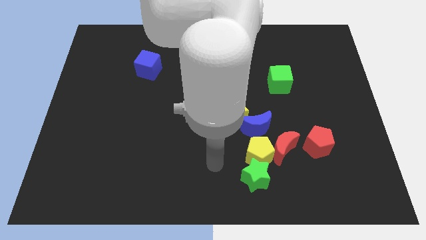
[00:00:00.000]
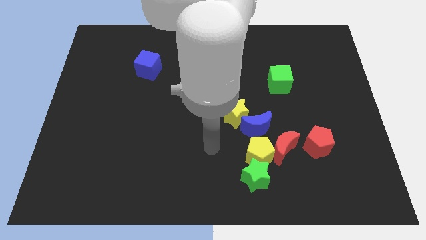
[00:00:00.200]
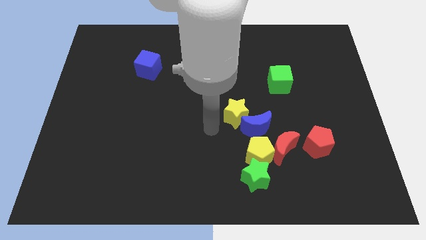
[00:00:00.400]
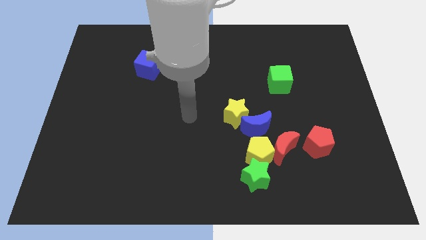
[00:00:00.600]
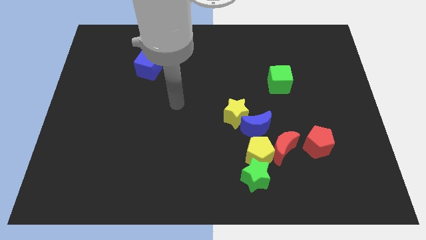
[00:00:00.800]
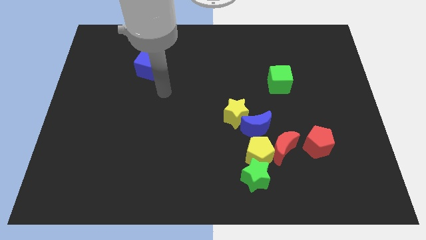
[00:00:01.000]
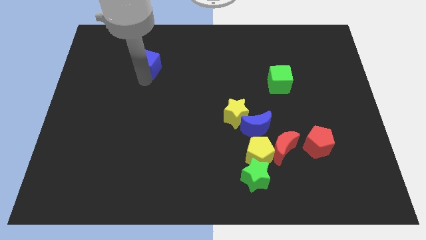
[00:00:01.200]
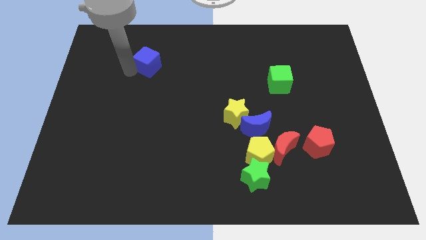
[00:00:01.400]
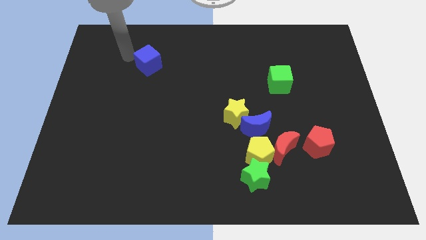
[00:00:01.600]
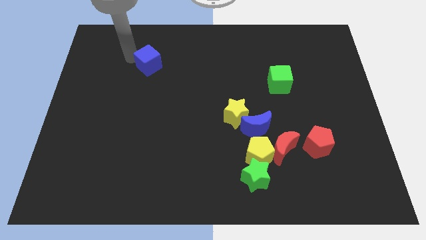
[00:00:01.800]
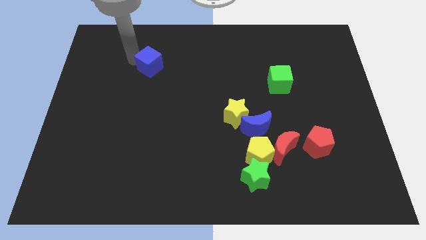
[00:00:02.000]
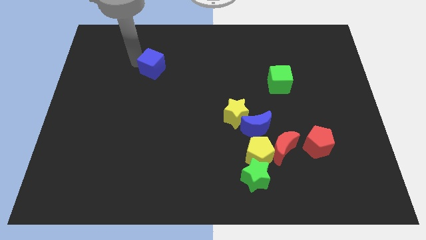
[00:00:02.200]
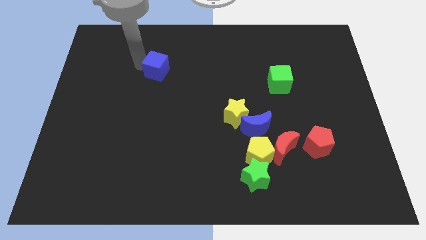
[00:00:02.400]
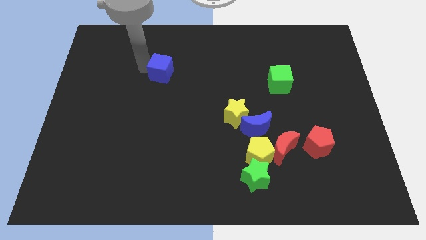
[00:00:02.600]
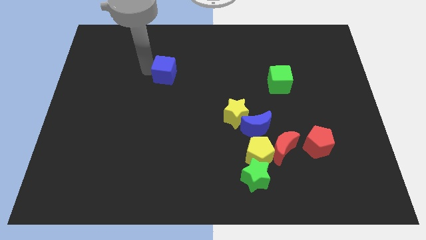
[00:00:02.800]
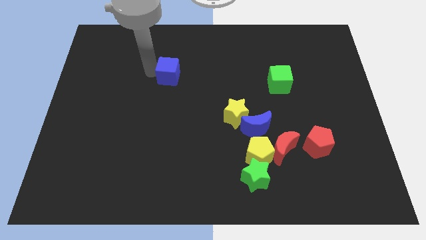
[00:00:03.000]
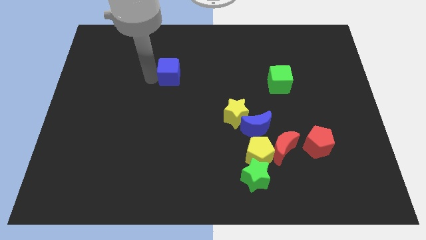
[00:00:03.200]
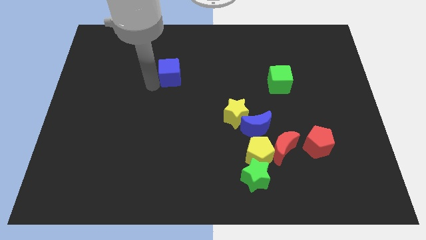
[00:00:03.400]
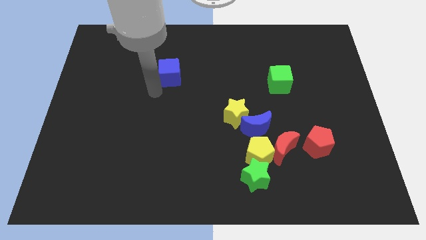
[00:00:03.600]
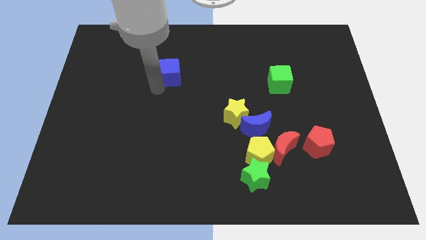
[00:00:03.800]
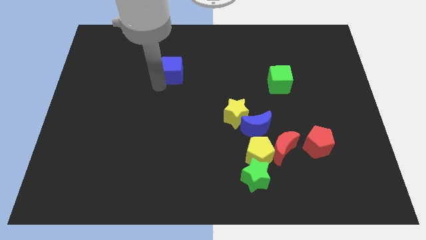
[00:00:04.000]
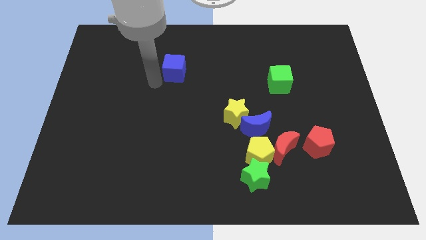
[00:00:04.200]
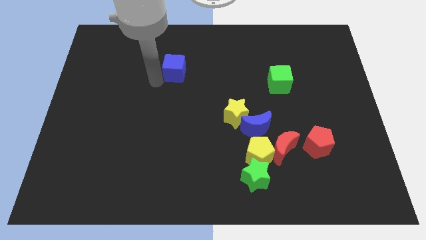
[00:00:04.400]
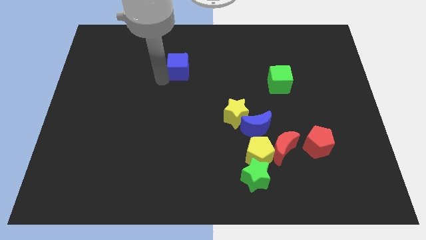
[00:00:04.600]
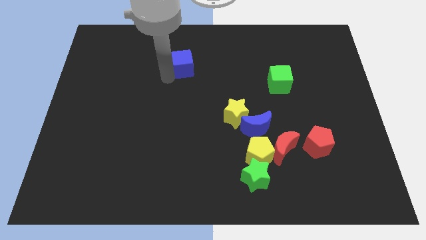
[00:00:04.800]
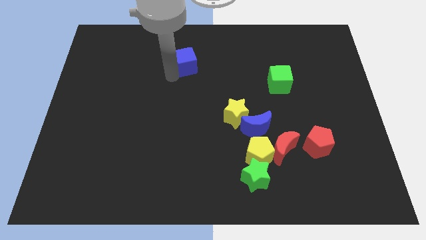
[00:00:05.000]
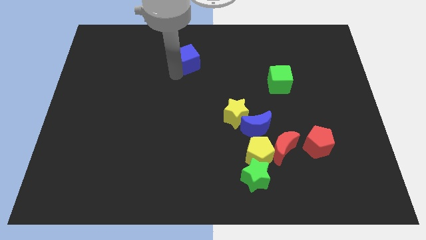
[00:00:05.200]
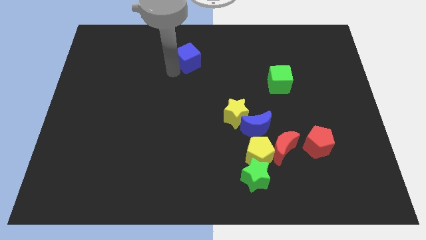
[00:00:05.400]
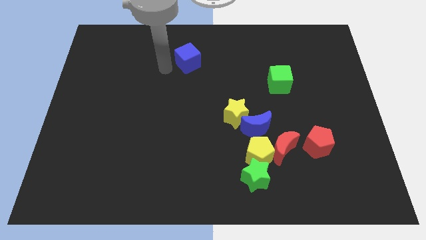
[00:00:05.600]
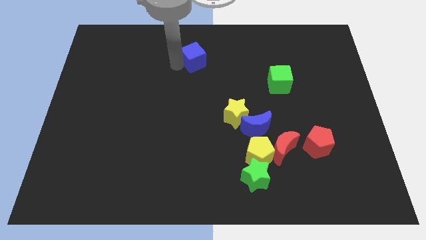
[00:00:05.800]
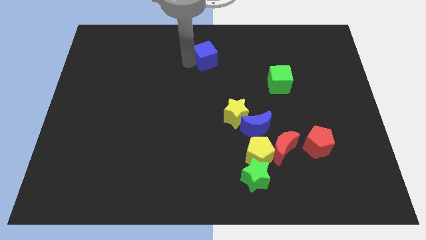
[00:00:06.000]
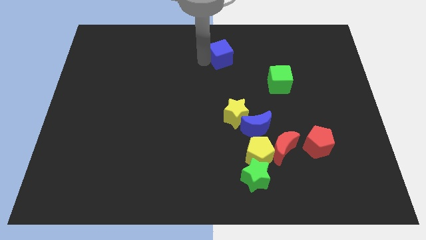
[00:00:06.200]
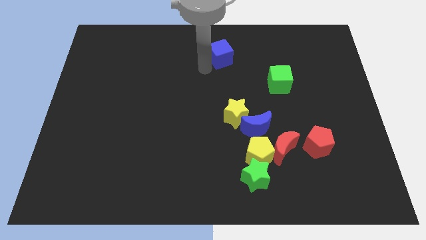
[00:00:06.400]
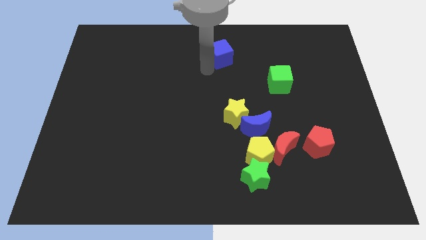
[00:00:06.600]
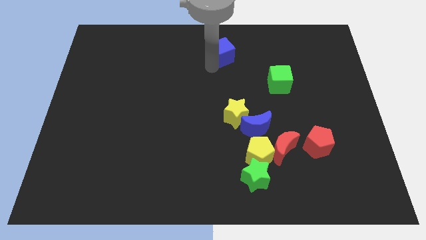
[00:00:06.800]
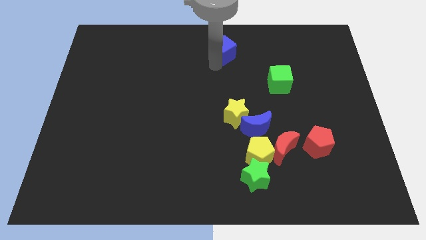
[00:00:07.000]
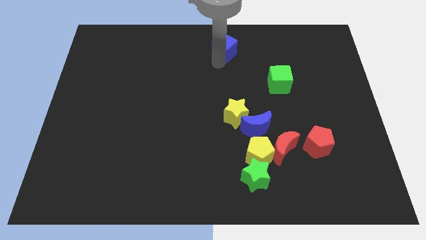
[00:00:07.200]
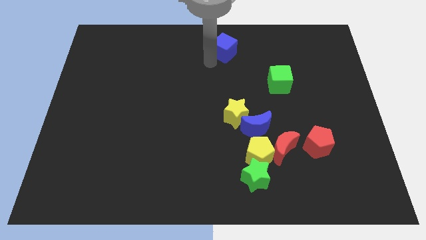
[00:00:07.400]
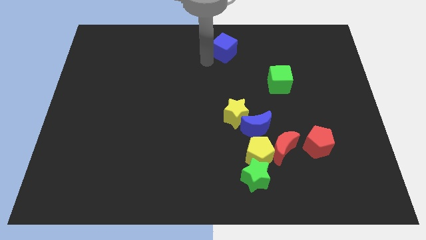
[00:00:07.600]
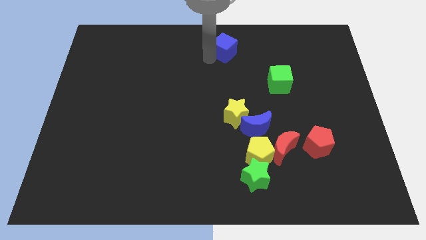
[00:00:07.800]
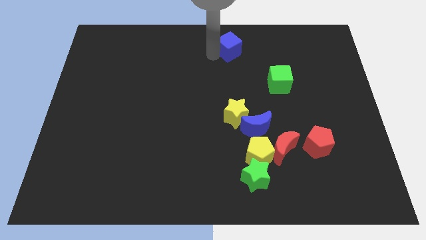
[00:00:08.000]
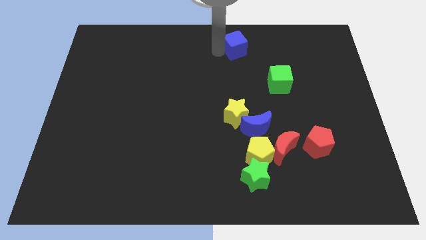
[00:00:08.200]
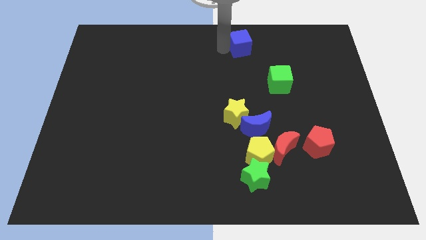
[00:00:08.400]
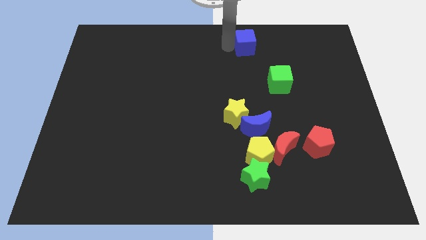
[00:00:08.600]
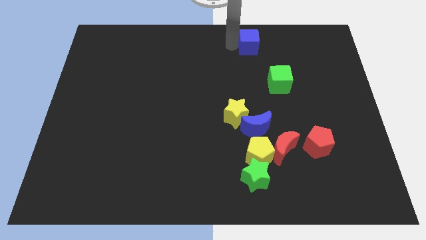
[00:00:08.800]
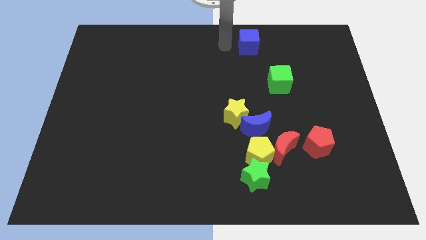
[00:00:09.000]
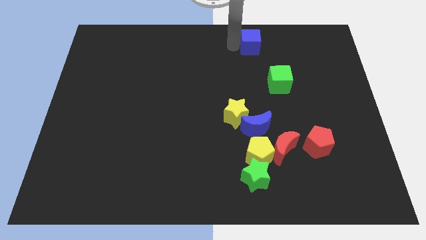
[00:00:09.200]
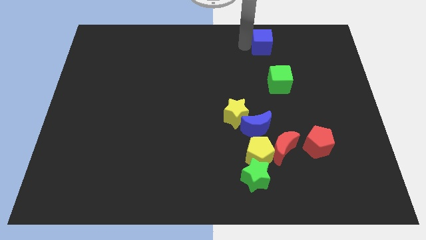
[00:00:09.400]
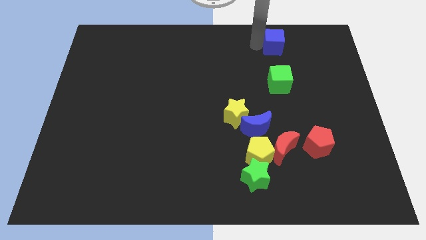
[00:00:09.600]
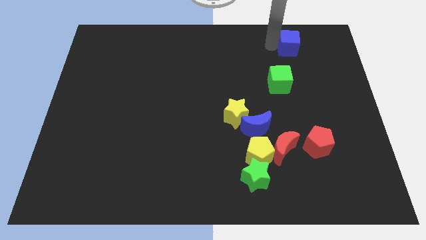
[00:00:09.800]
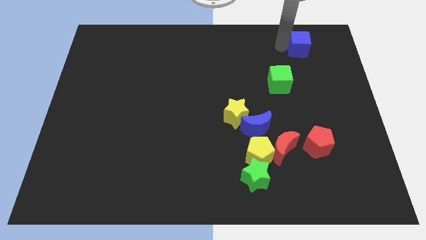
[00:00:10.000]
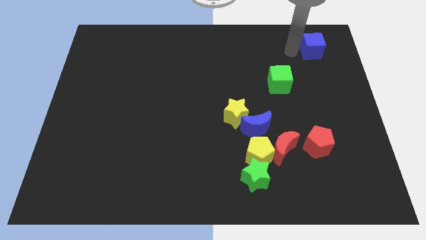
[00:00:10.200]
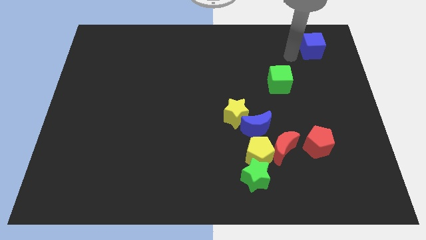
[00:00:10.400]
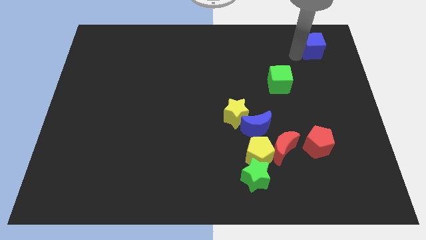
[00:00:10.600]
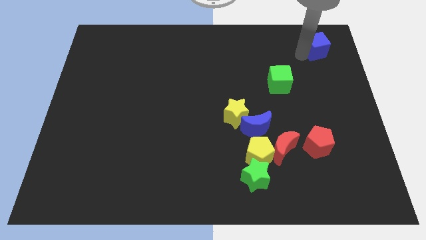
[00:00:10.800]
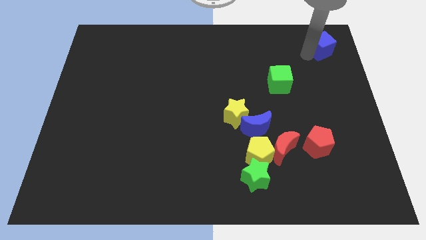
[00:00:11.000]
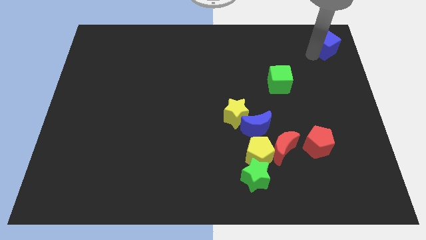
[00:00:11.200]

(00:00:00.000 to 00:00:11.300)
move the blue cube to the top right of the board

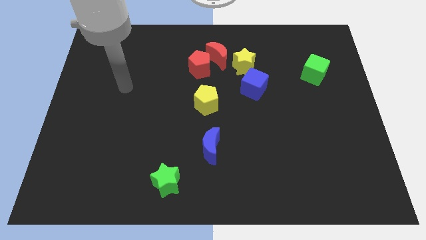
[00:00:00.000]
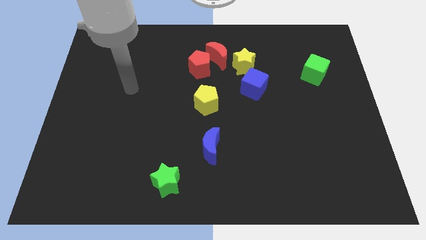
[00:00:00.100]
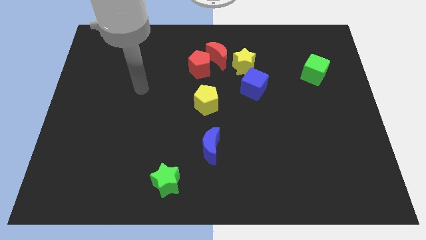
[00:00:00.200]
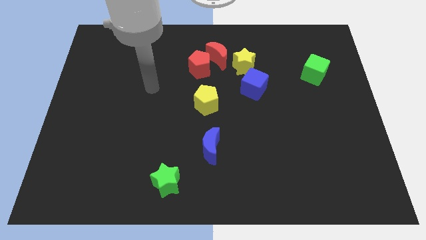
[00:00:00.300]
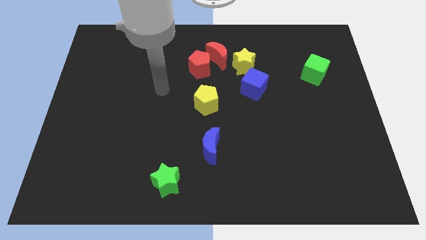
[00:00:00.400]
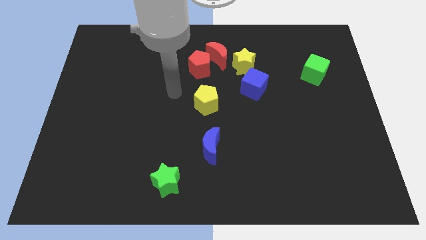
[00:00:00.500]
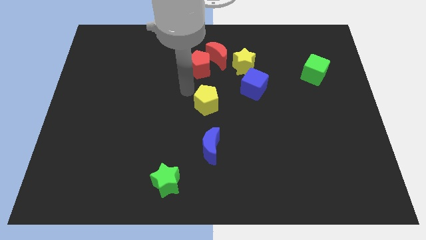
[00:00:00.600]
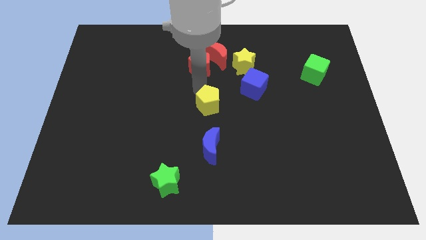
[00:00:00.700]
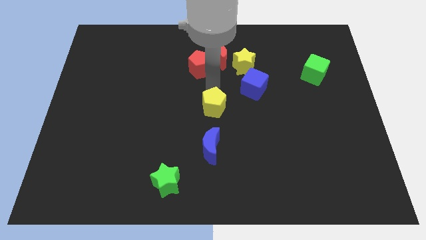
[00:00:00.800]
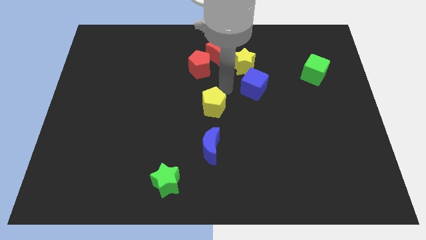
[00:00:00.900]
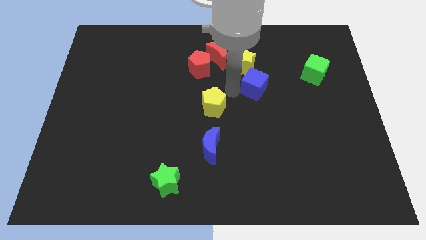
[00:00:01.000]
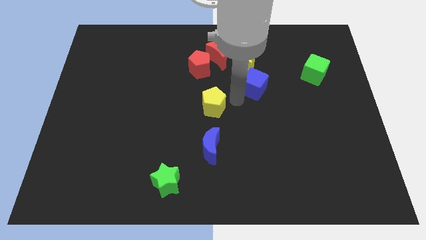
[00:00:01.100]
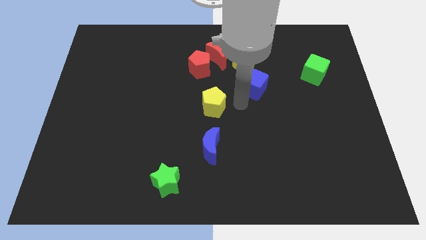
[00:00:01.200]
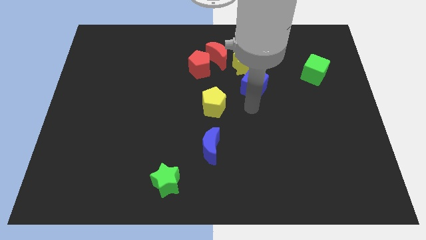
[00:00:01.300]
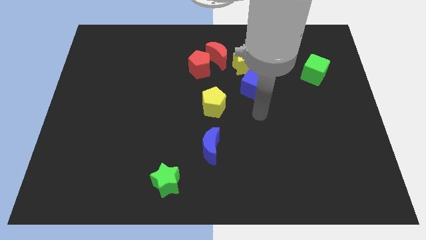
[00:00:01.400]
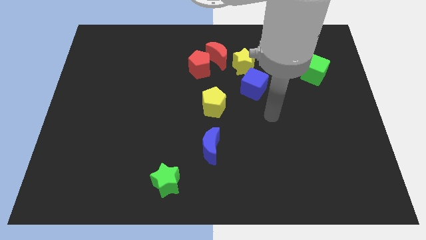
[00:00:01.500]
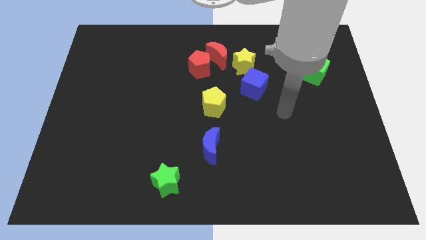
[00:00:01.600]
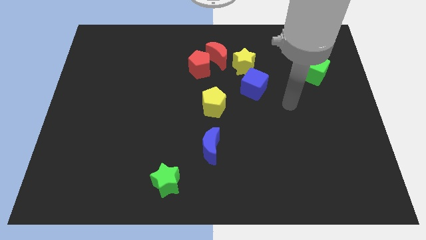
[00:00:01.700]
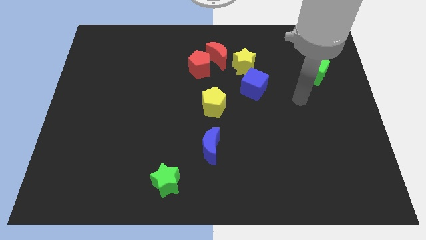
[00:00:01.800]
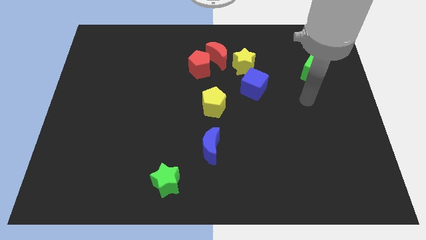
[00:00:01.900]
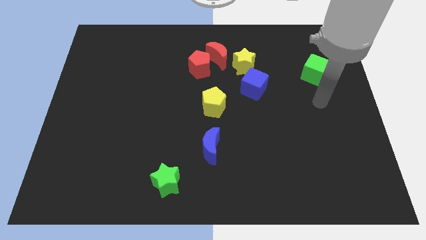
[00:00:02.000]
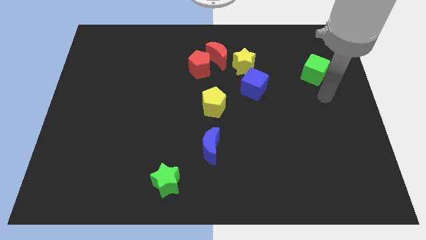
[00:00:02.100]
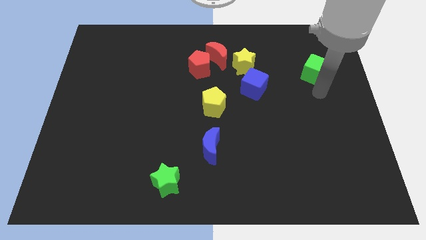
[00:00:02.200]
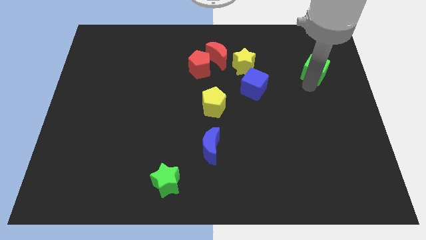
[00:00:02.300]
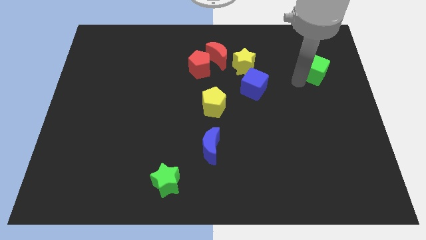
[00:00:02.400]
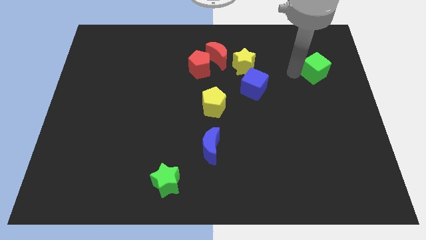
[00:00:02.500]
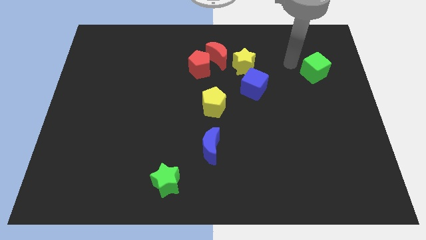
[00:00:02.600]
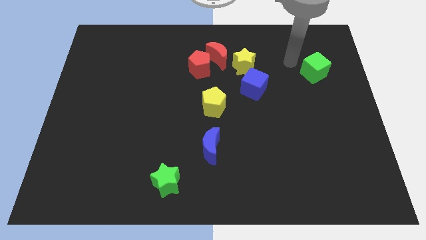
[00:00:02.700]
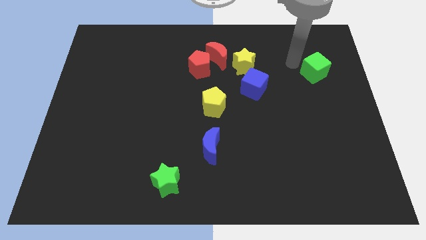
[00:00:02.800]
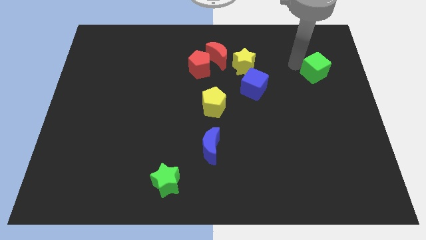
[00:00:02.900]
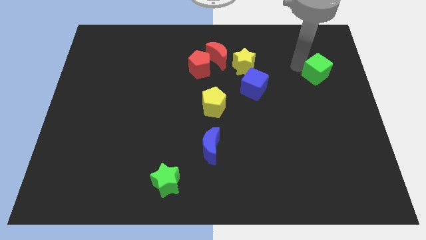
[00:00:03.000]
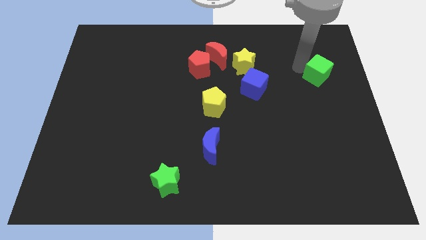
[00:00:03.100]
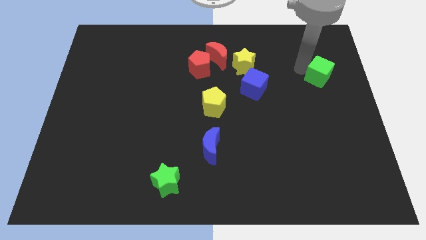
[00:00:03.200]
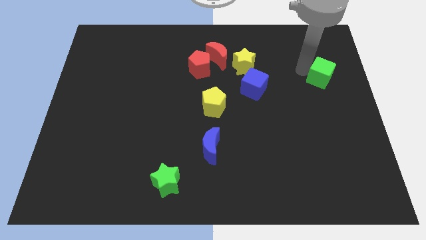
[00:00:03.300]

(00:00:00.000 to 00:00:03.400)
put the green cube to the right side
